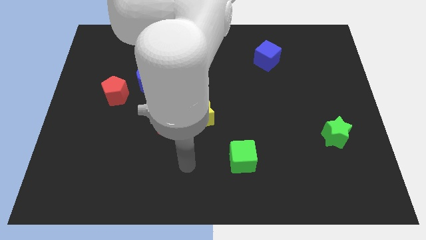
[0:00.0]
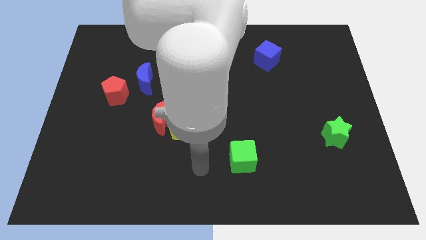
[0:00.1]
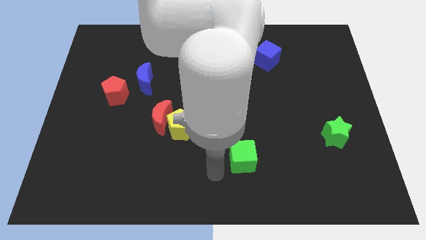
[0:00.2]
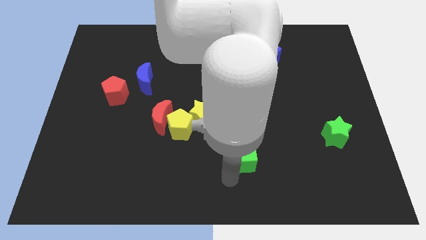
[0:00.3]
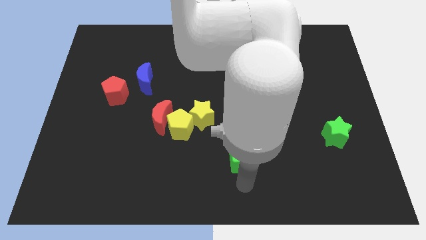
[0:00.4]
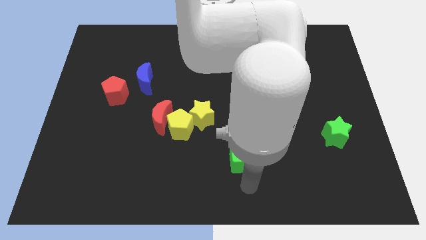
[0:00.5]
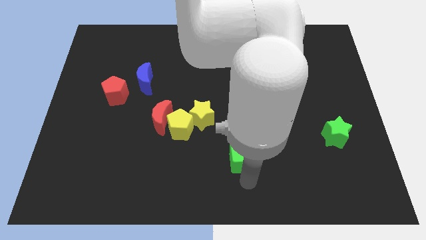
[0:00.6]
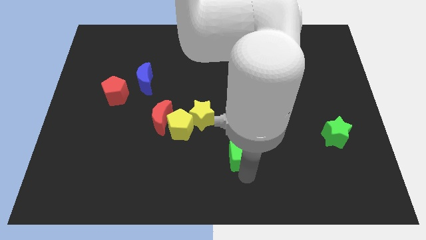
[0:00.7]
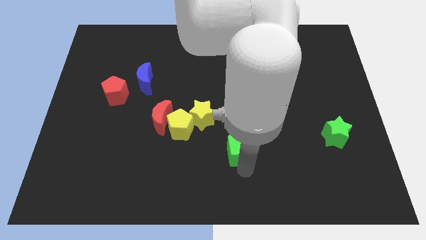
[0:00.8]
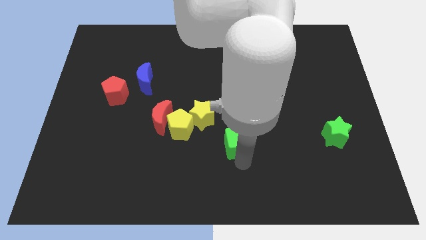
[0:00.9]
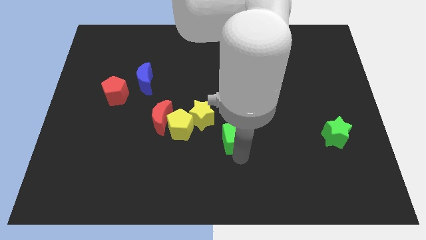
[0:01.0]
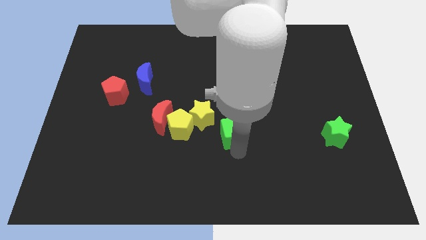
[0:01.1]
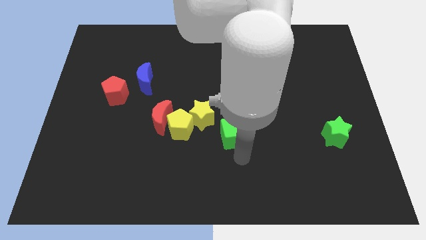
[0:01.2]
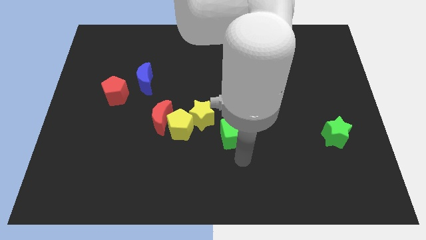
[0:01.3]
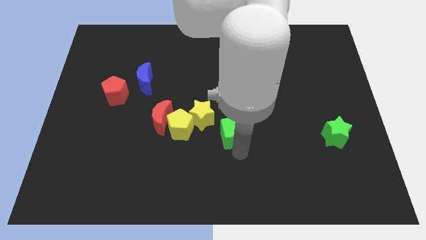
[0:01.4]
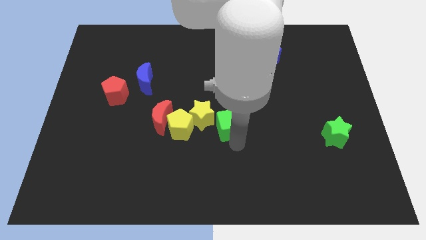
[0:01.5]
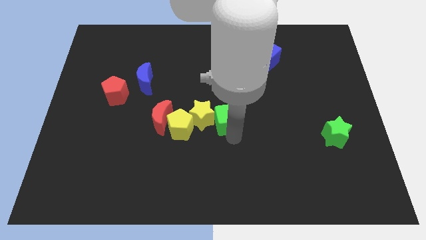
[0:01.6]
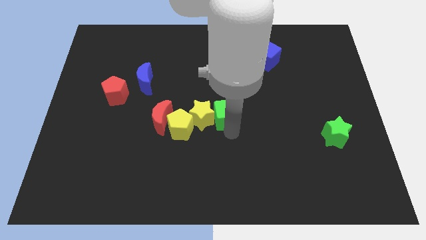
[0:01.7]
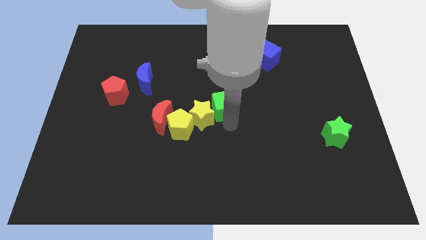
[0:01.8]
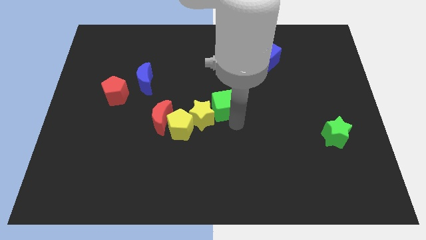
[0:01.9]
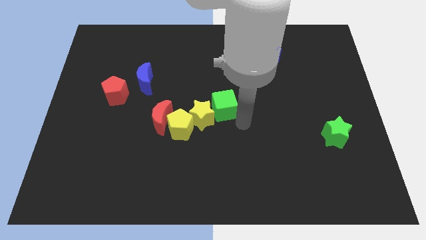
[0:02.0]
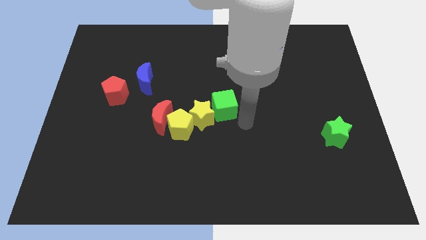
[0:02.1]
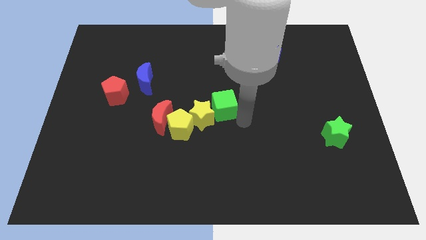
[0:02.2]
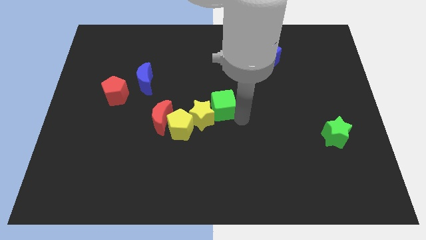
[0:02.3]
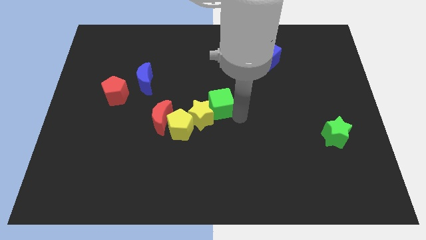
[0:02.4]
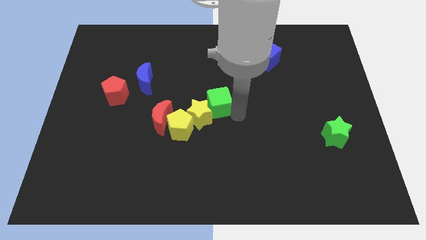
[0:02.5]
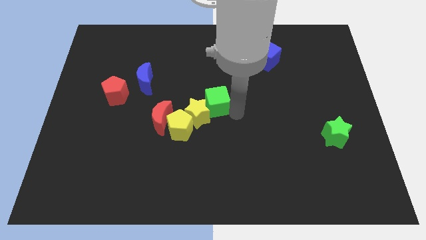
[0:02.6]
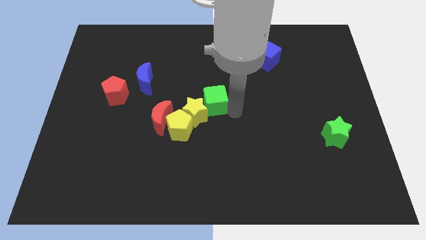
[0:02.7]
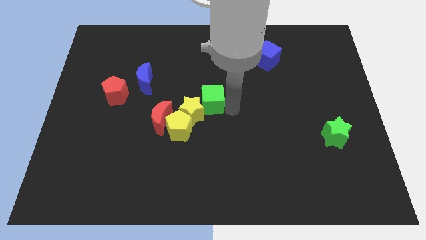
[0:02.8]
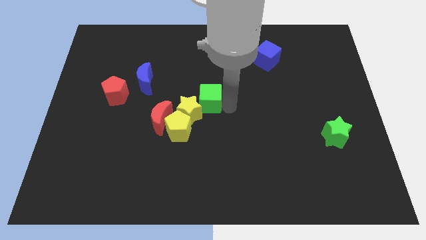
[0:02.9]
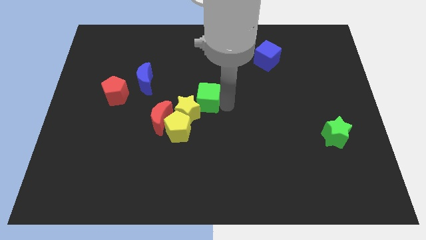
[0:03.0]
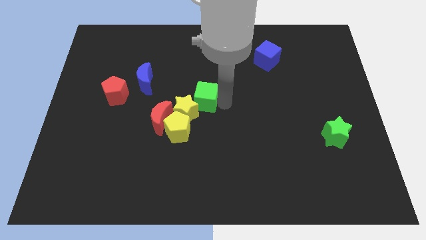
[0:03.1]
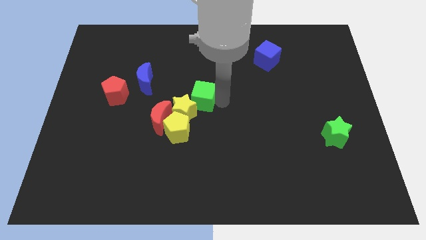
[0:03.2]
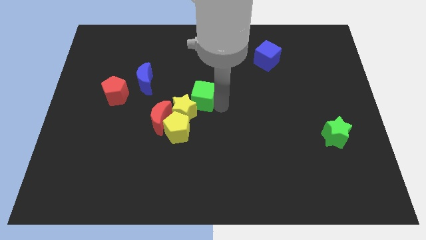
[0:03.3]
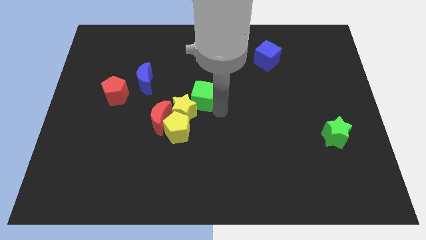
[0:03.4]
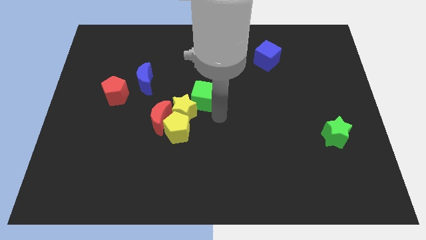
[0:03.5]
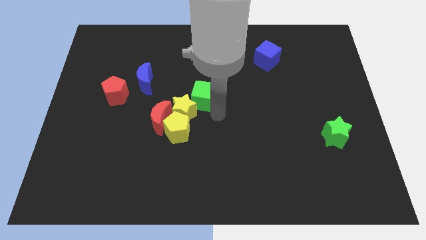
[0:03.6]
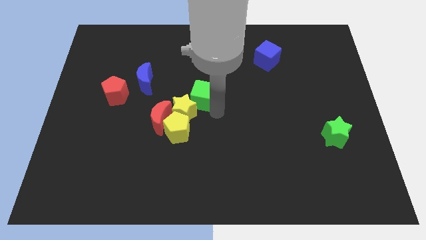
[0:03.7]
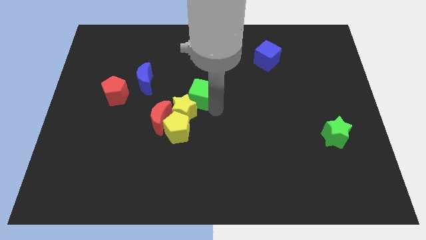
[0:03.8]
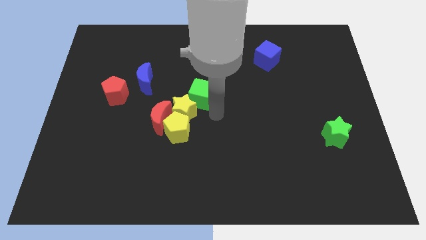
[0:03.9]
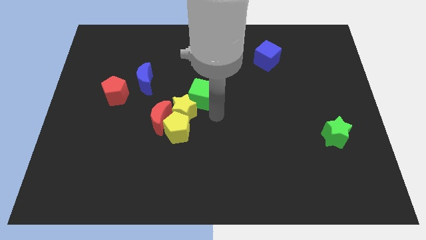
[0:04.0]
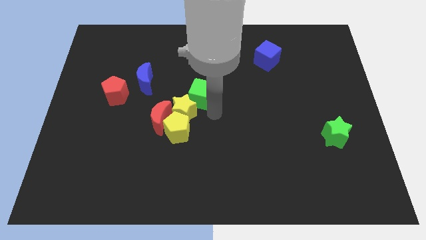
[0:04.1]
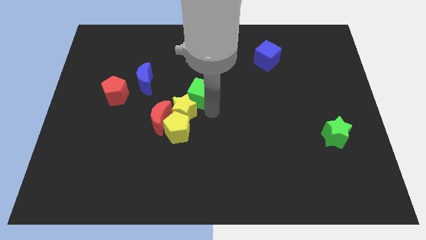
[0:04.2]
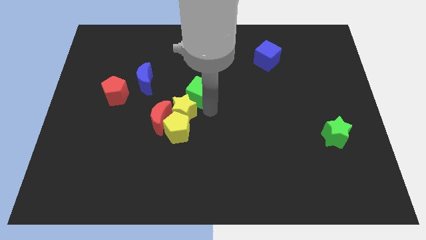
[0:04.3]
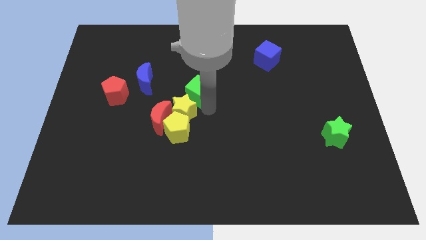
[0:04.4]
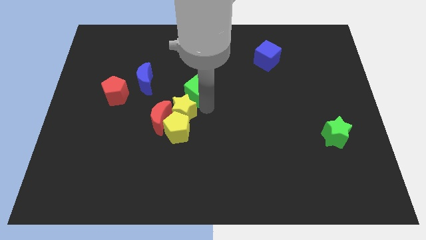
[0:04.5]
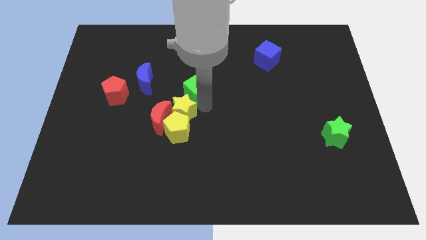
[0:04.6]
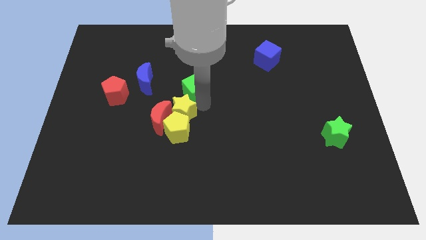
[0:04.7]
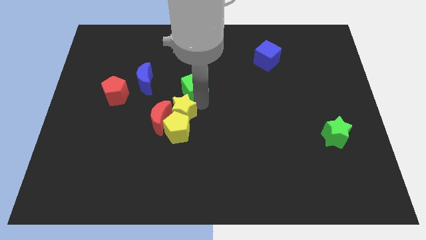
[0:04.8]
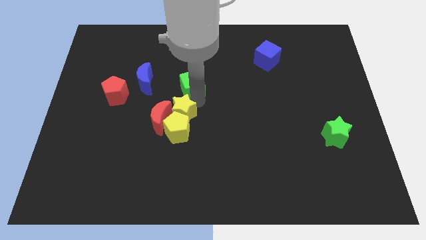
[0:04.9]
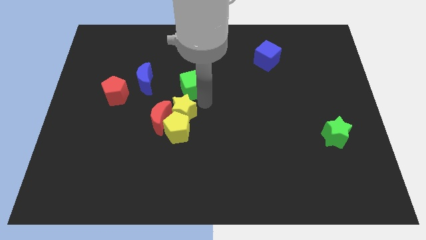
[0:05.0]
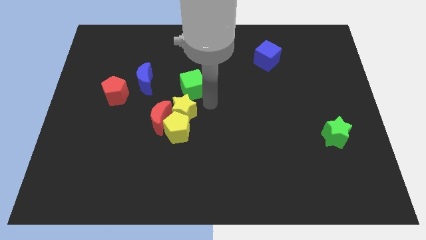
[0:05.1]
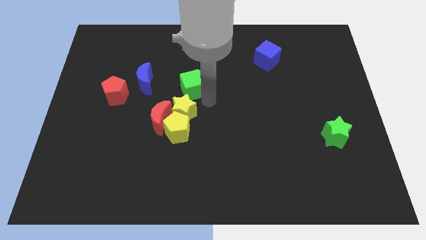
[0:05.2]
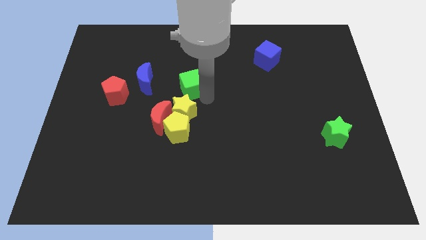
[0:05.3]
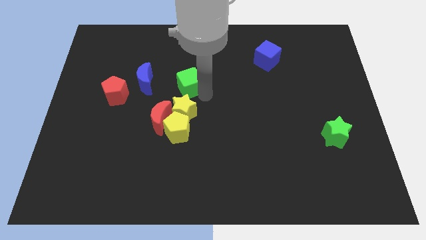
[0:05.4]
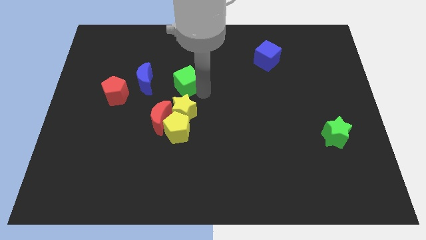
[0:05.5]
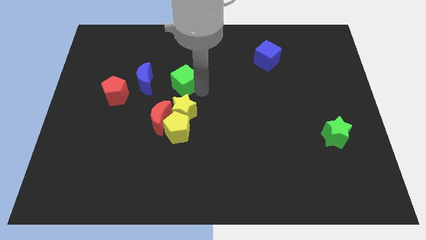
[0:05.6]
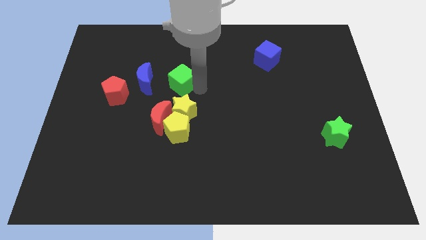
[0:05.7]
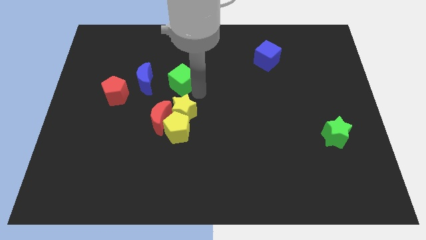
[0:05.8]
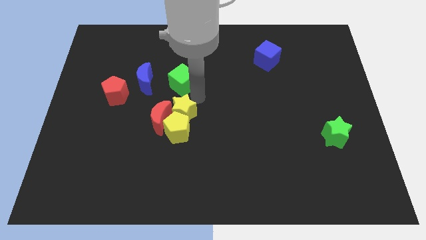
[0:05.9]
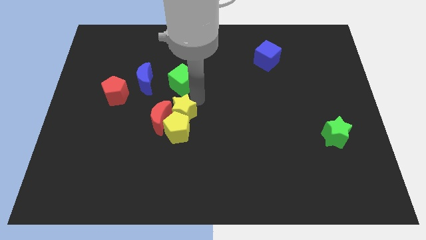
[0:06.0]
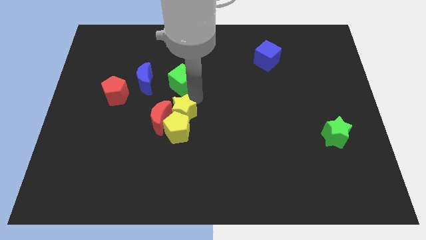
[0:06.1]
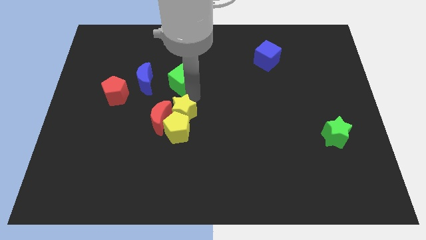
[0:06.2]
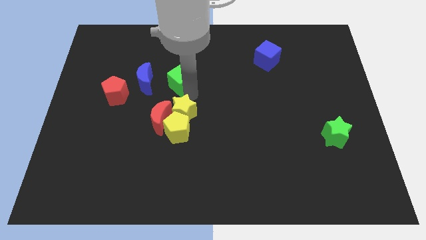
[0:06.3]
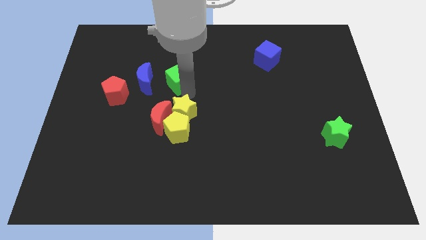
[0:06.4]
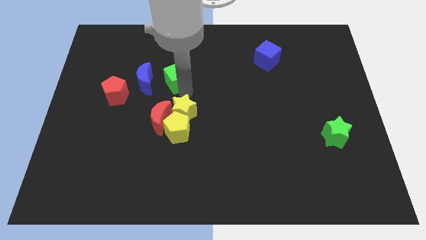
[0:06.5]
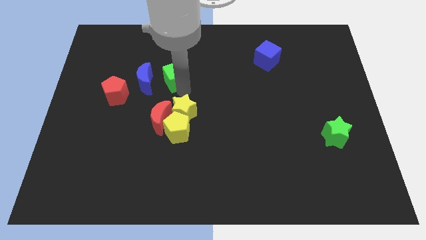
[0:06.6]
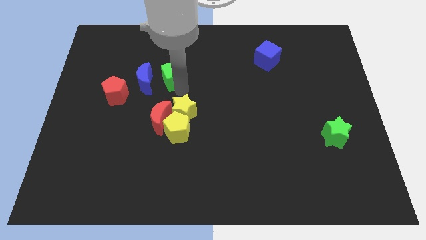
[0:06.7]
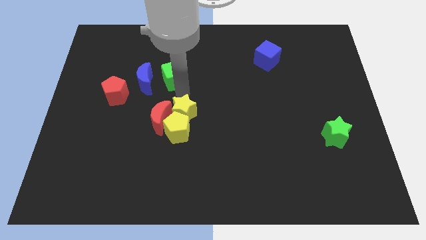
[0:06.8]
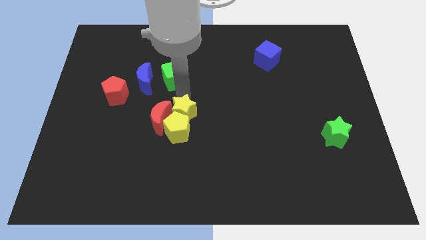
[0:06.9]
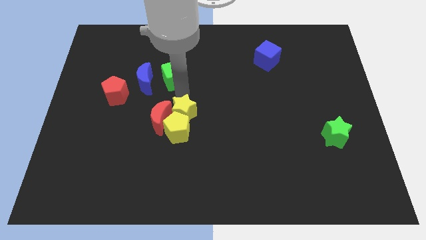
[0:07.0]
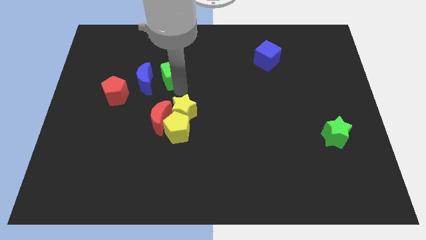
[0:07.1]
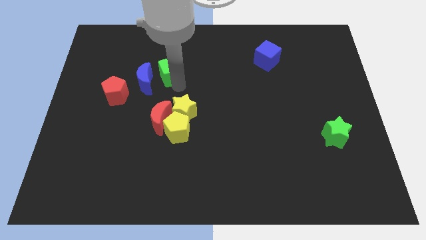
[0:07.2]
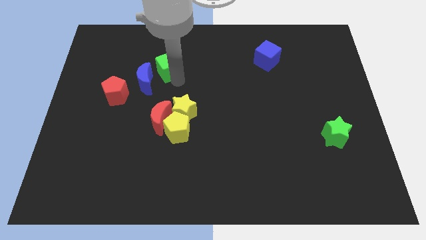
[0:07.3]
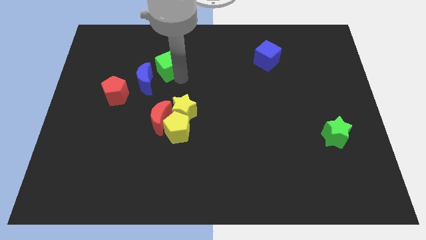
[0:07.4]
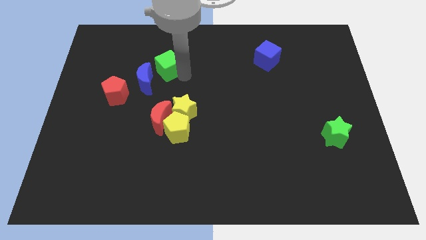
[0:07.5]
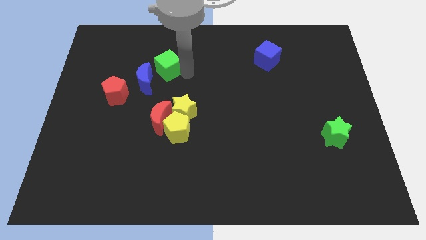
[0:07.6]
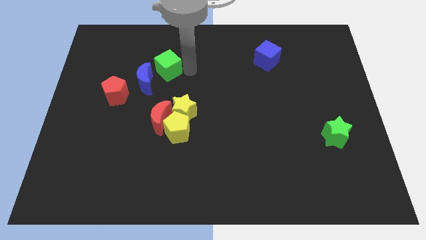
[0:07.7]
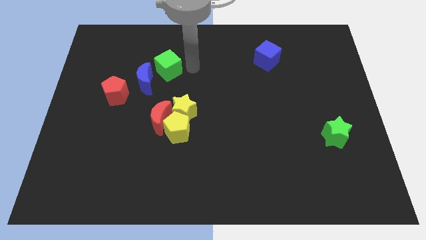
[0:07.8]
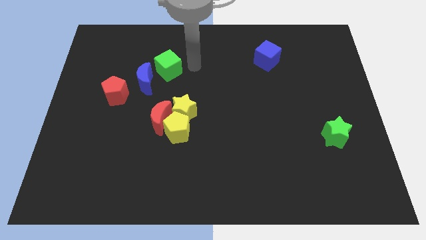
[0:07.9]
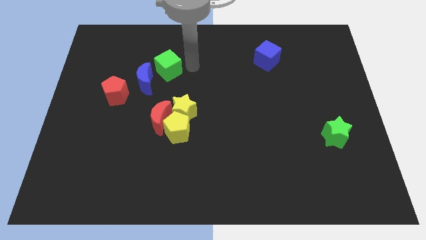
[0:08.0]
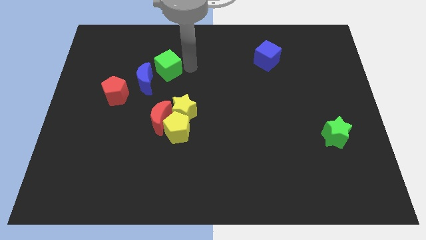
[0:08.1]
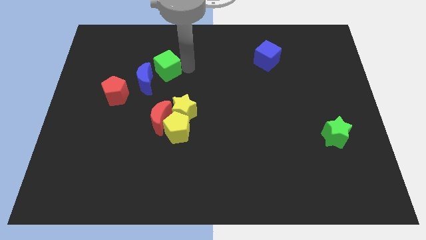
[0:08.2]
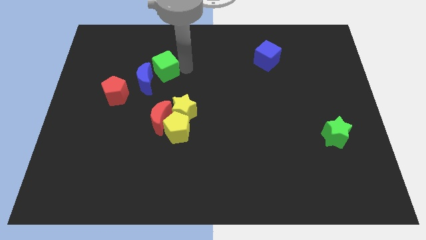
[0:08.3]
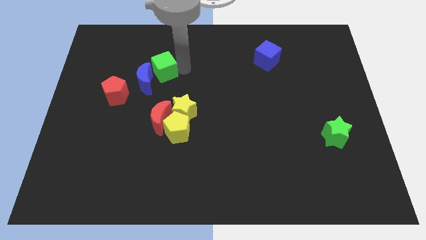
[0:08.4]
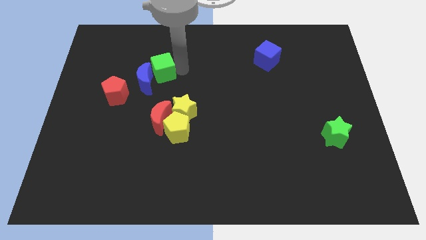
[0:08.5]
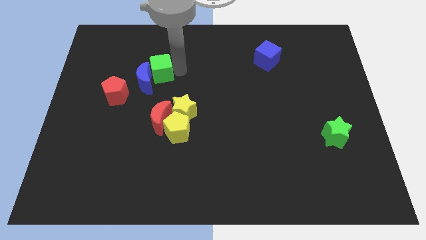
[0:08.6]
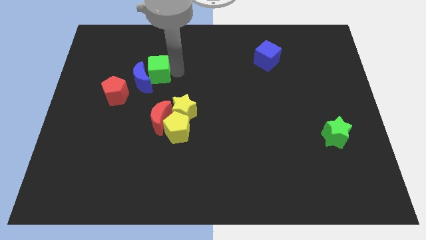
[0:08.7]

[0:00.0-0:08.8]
put the green cube to the top right of the red pentagon
